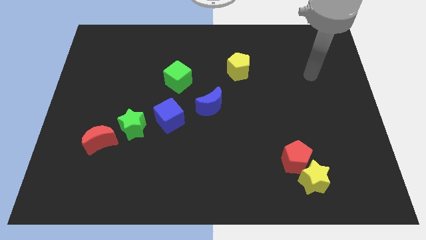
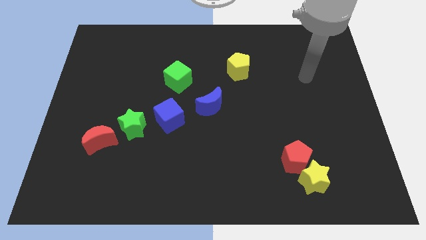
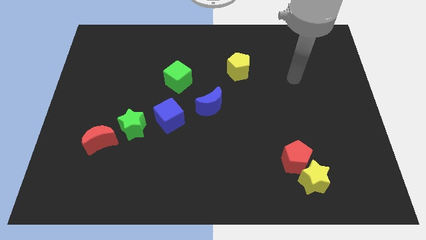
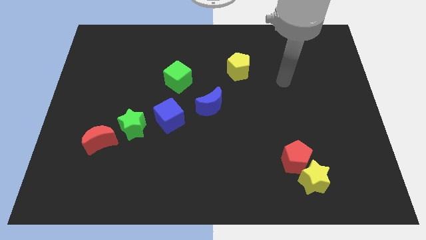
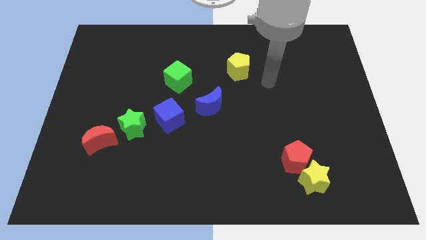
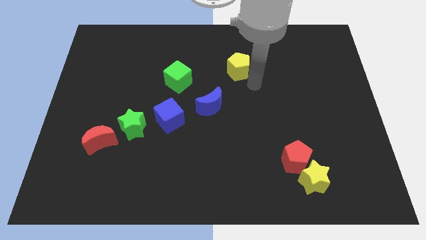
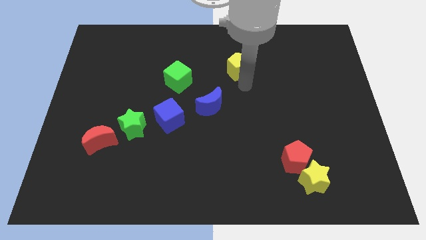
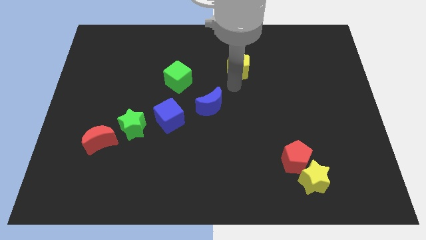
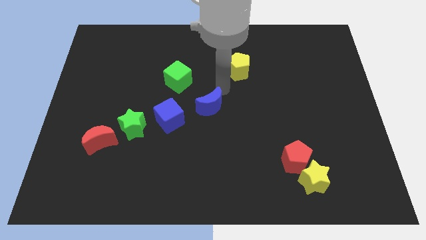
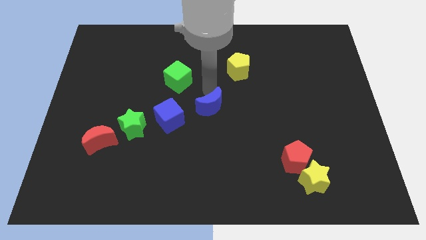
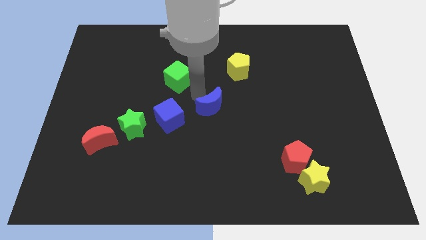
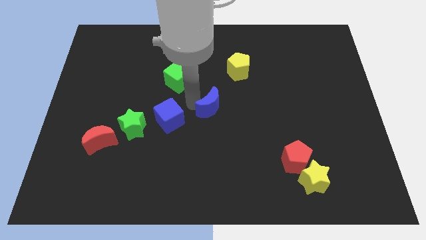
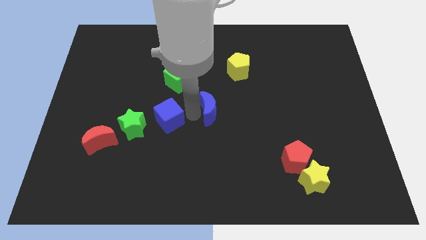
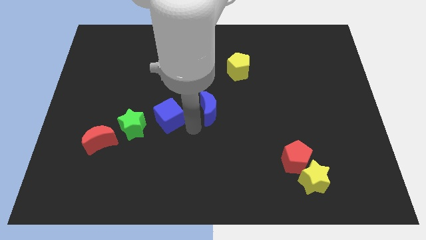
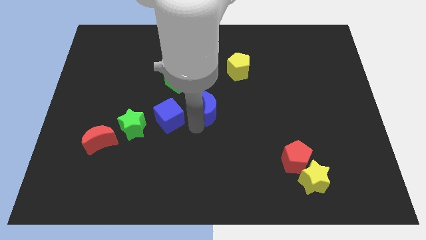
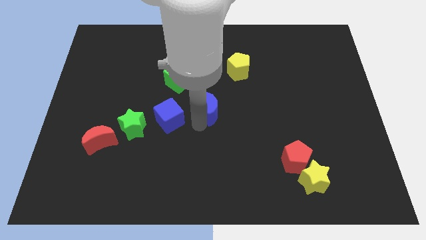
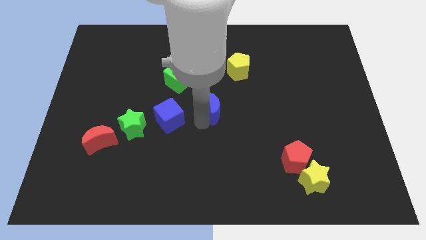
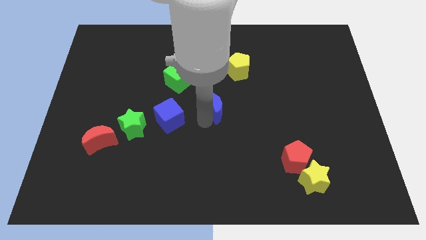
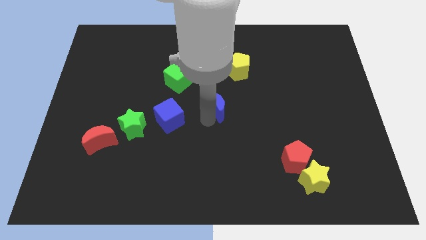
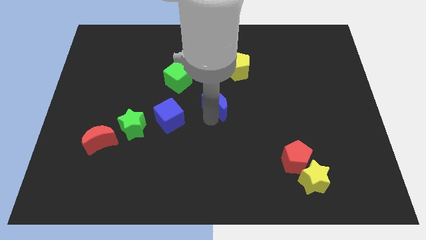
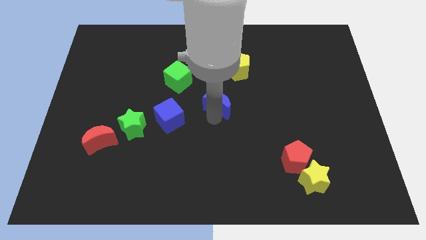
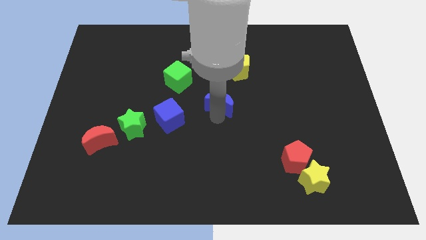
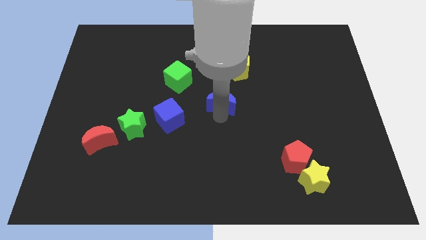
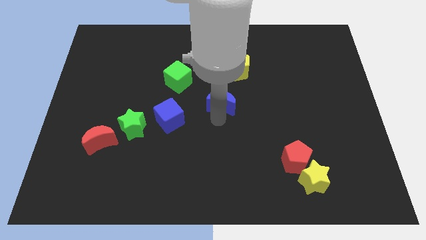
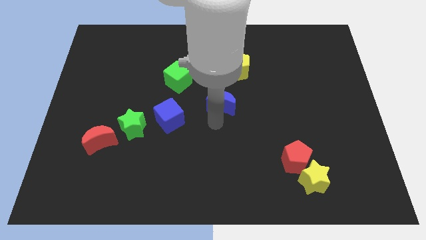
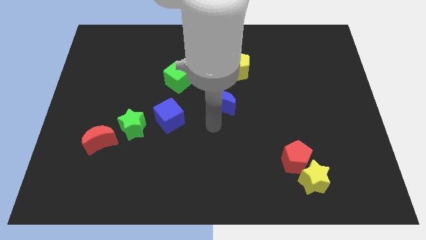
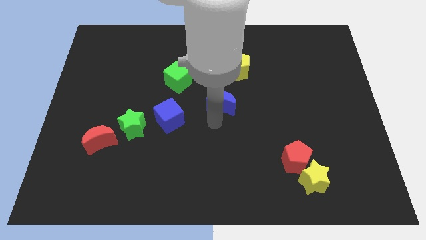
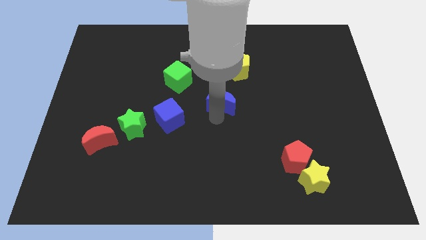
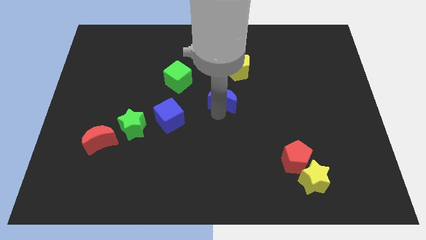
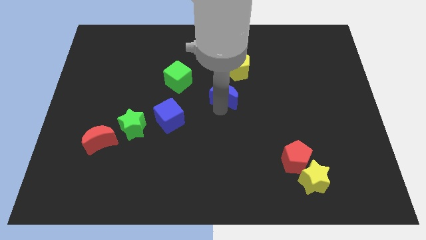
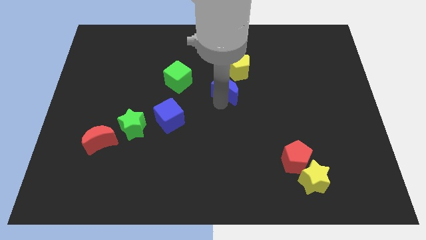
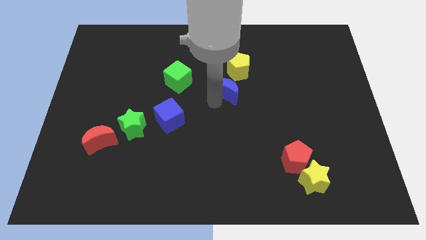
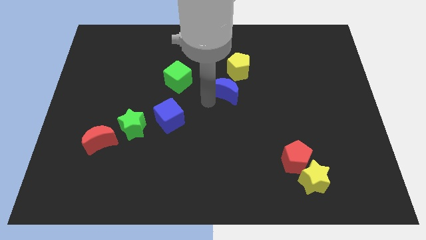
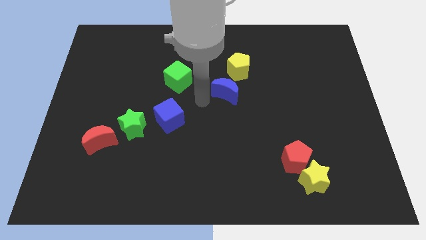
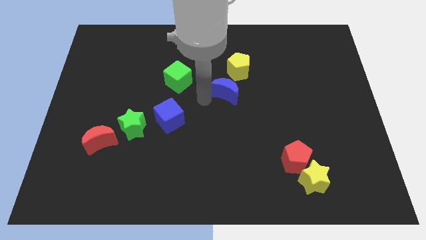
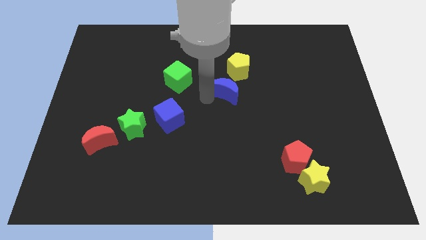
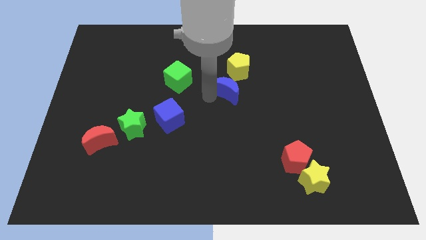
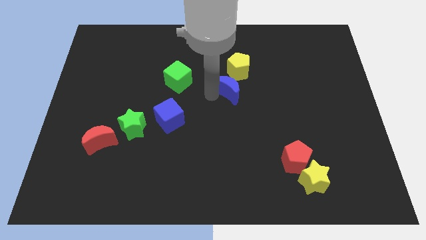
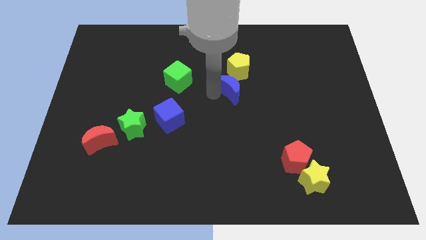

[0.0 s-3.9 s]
slide the blue moon upwards and to the right diagonally somewhat

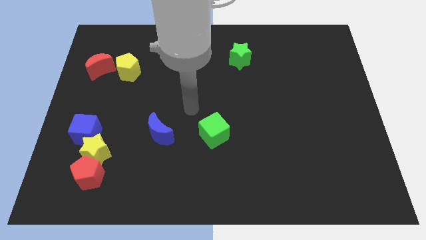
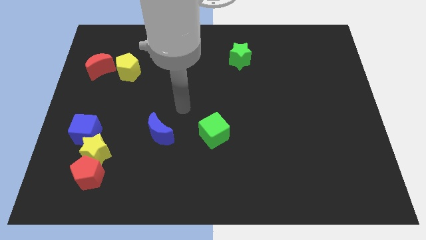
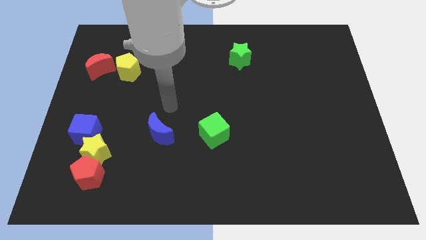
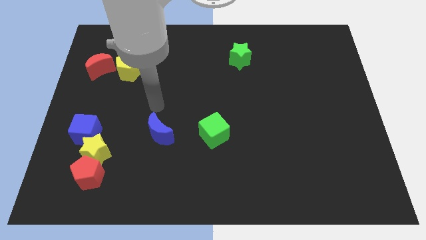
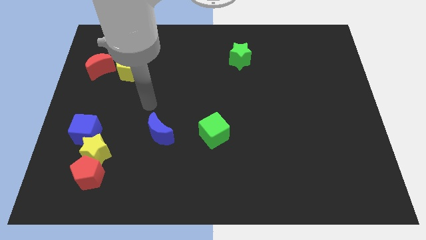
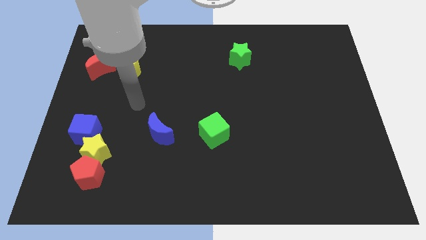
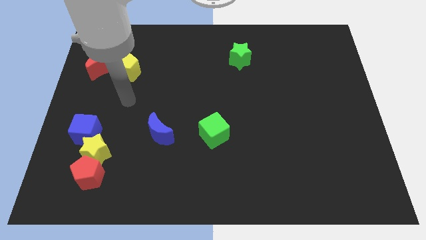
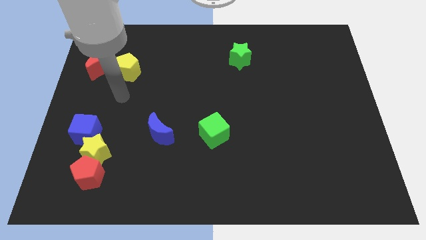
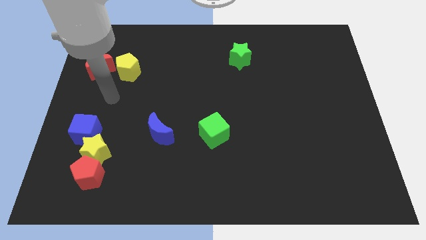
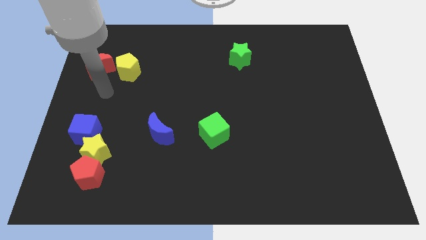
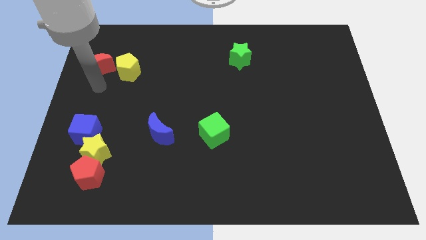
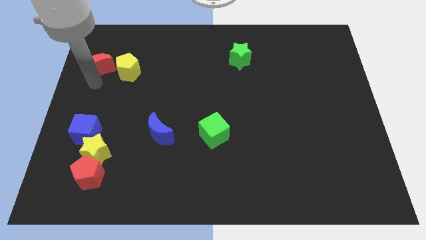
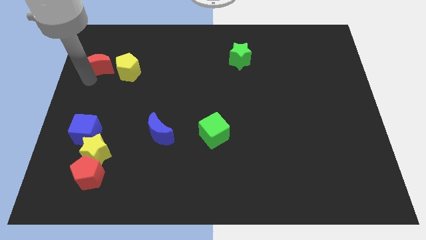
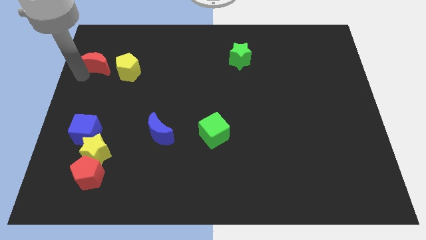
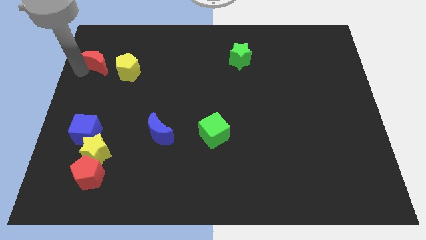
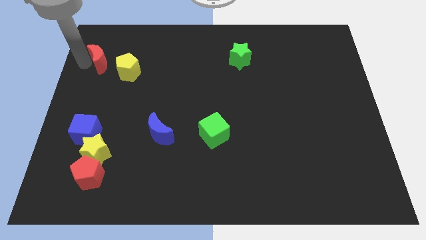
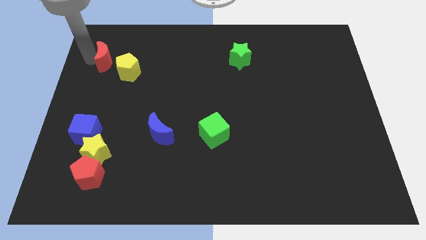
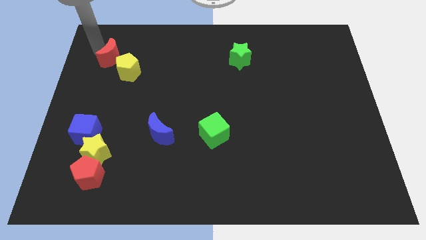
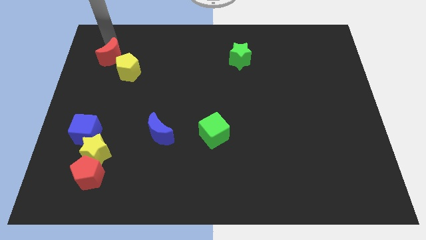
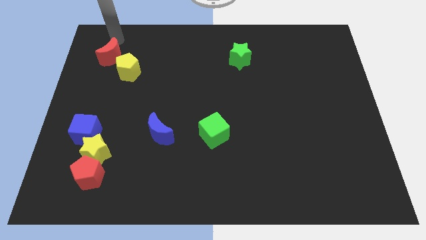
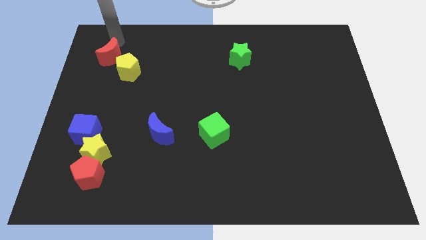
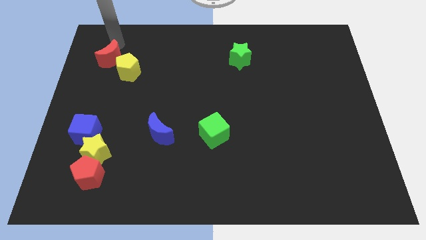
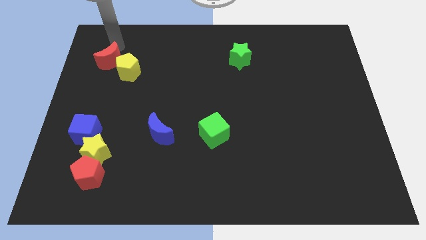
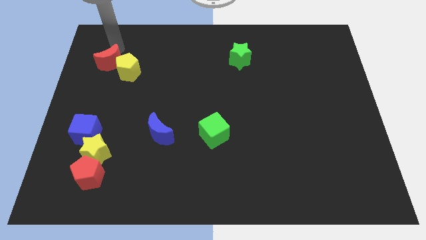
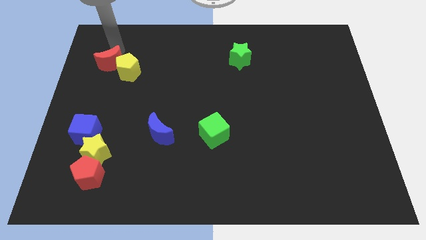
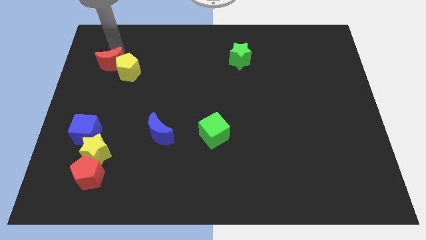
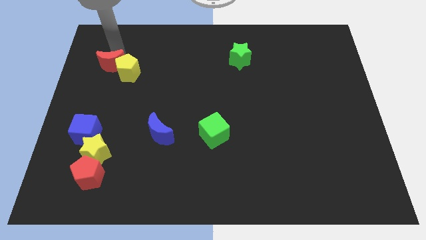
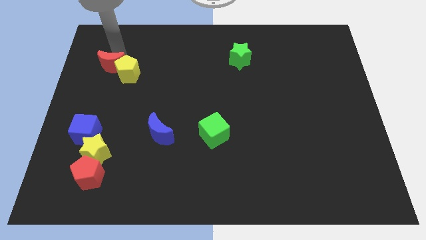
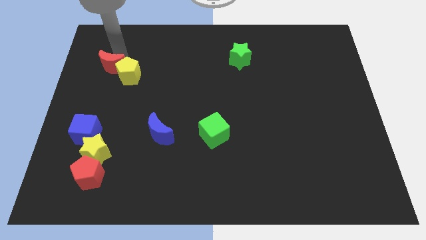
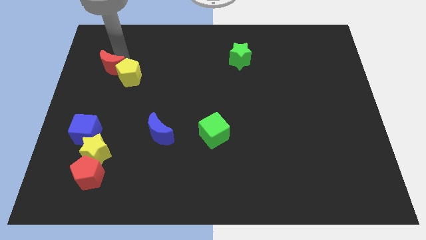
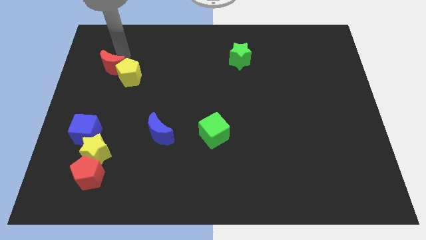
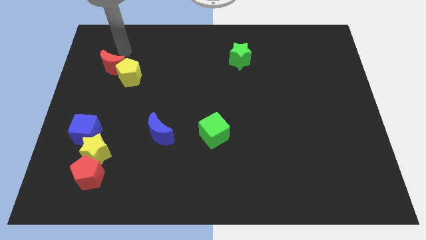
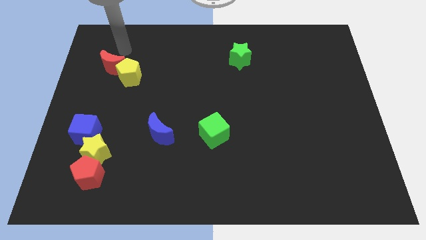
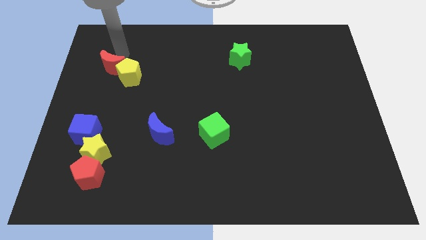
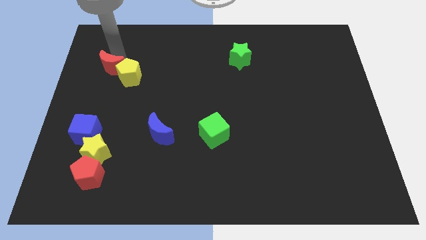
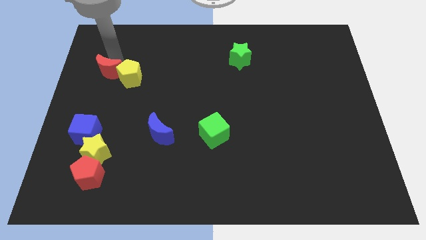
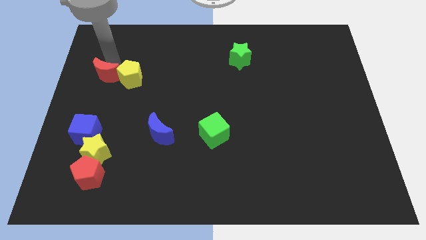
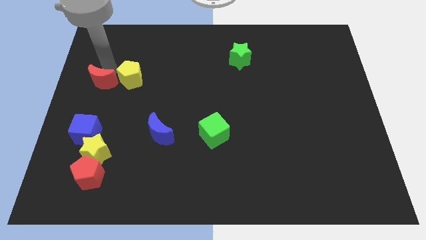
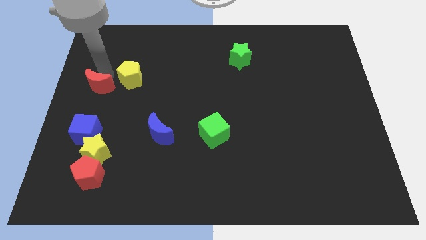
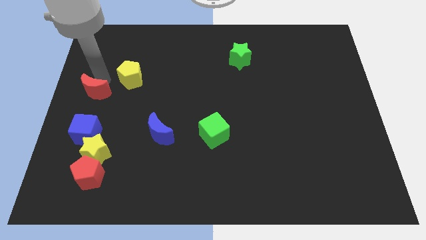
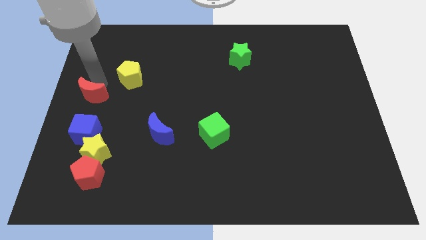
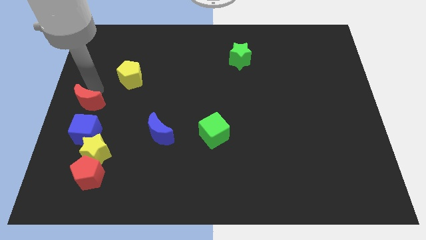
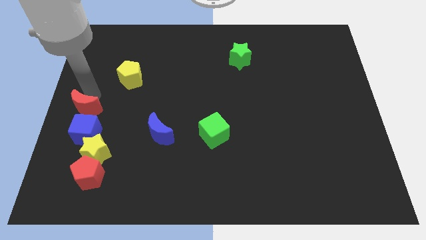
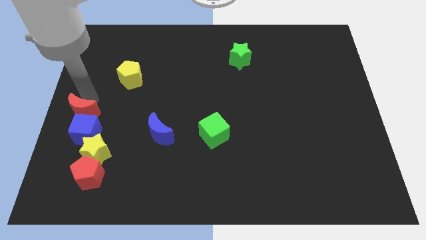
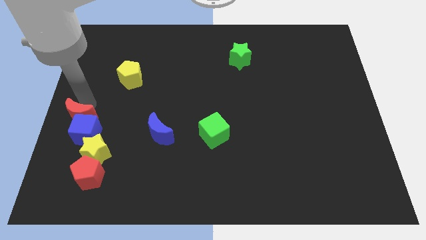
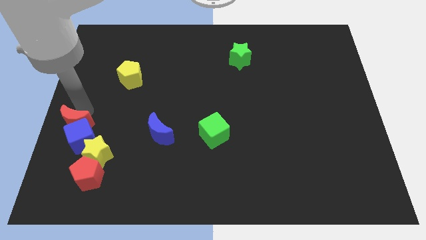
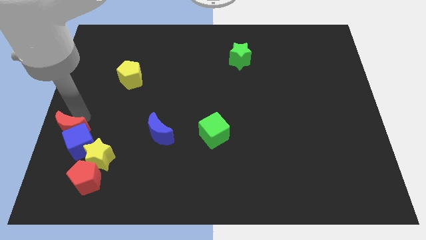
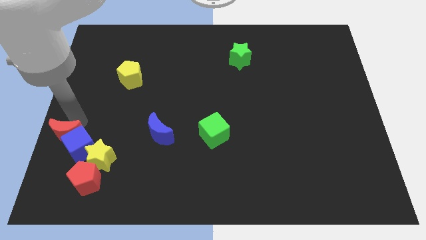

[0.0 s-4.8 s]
move the red moon down
